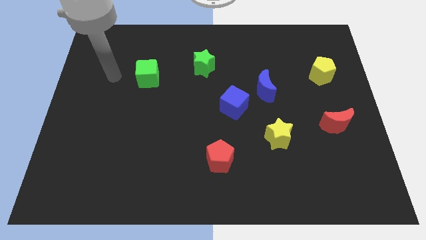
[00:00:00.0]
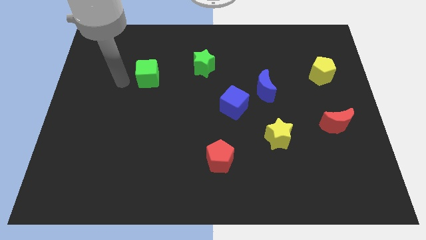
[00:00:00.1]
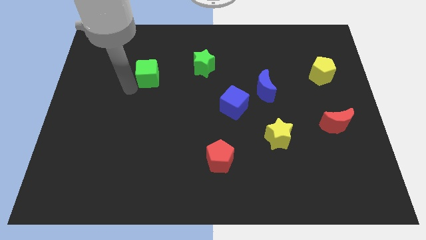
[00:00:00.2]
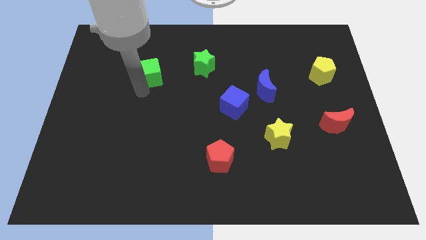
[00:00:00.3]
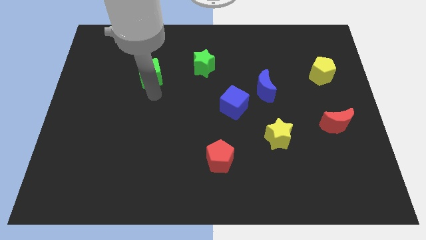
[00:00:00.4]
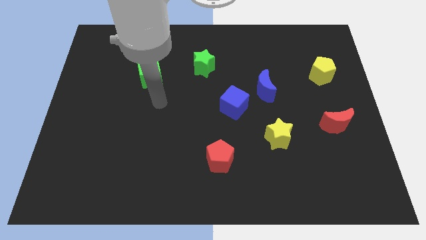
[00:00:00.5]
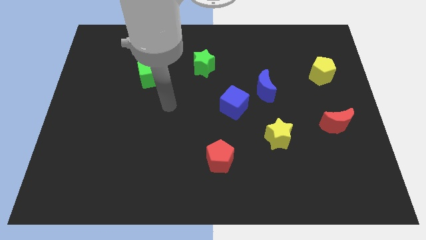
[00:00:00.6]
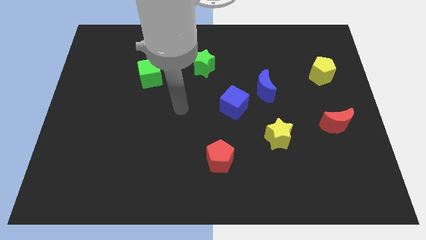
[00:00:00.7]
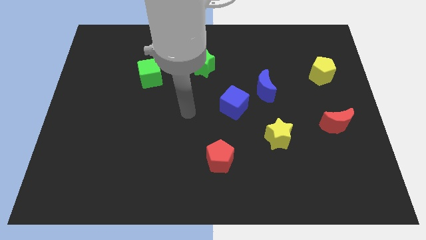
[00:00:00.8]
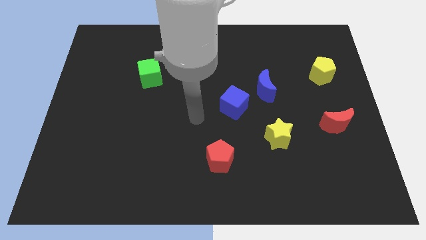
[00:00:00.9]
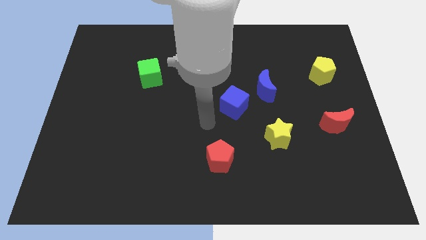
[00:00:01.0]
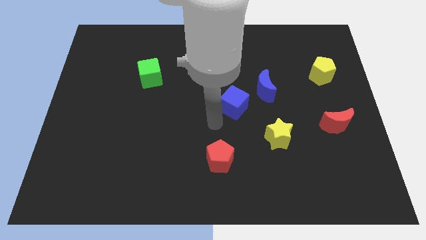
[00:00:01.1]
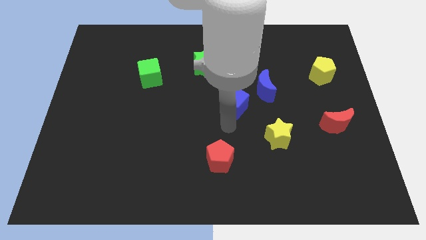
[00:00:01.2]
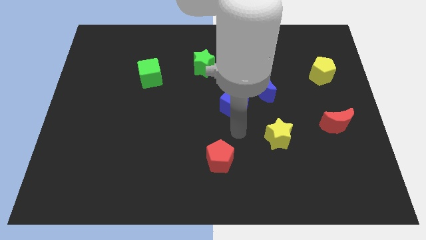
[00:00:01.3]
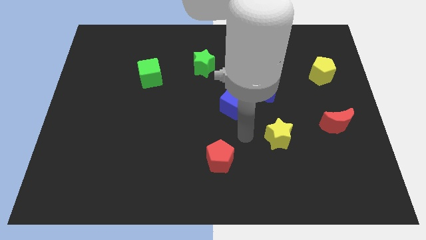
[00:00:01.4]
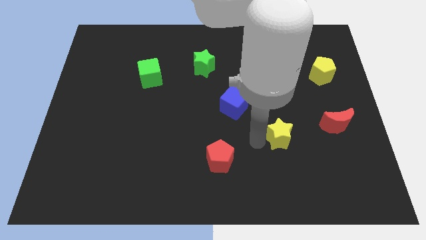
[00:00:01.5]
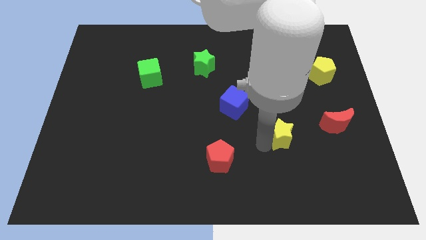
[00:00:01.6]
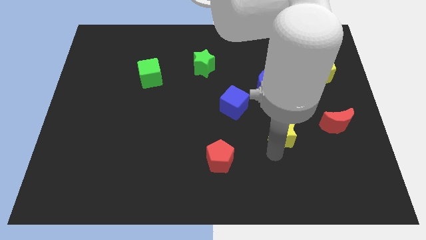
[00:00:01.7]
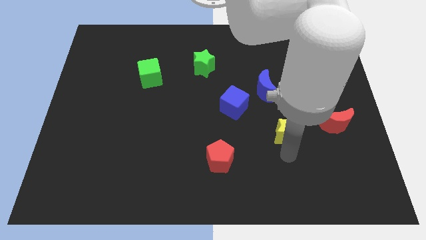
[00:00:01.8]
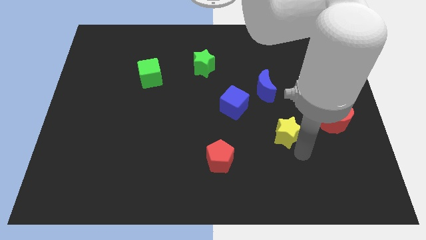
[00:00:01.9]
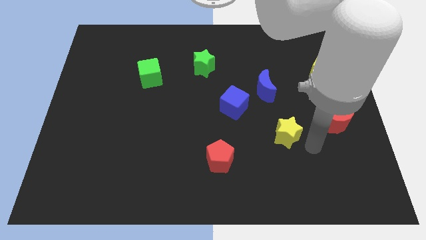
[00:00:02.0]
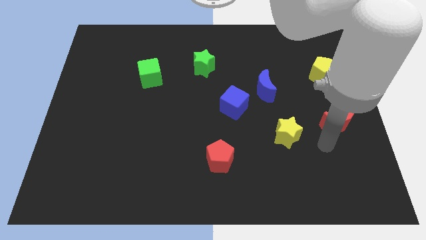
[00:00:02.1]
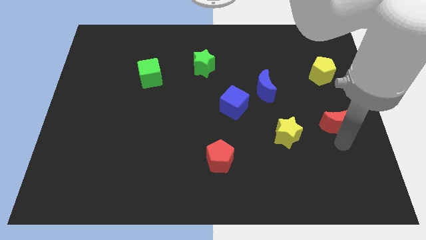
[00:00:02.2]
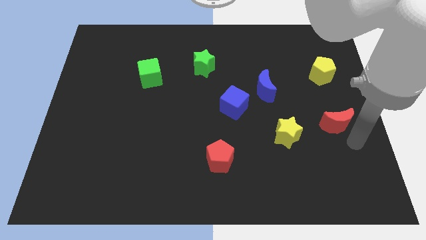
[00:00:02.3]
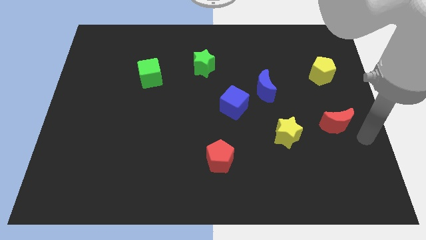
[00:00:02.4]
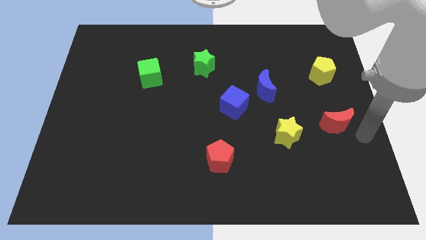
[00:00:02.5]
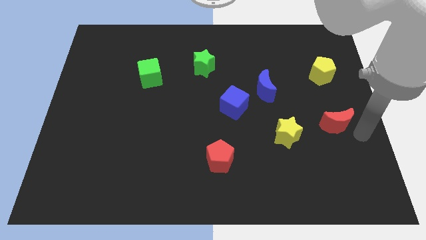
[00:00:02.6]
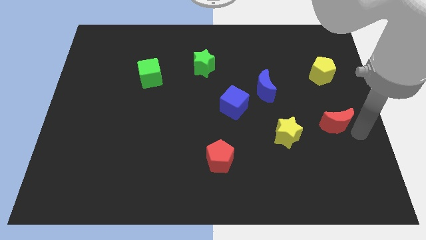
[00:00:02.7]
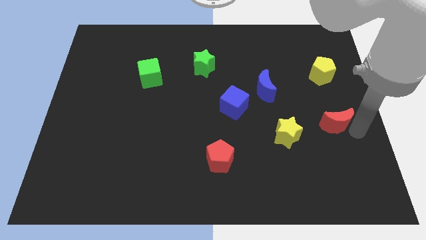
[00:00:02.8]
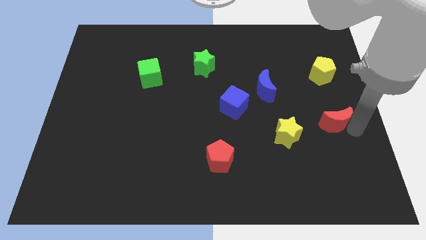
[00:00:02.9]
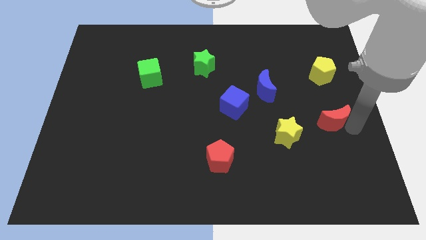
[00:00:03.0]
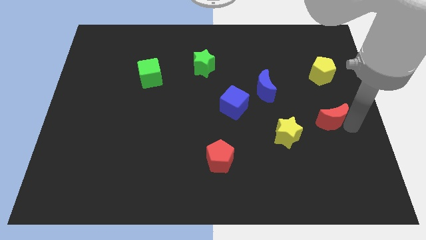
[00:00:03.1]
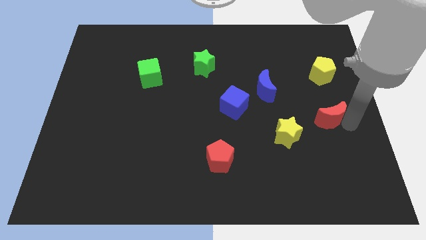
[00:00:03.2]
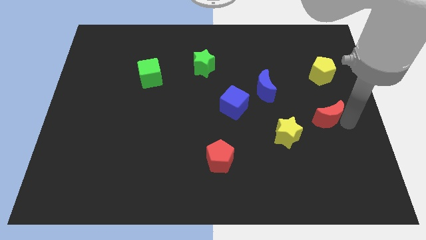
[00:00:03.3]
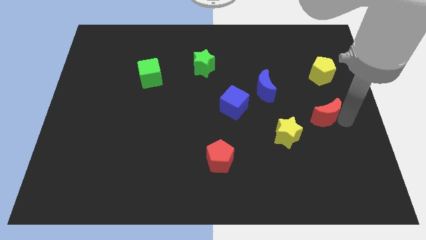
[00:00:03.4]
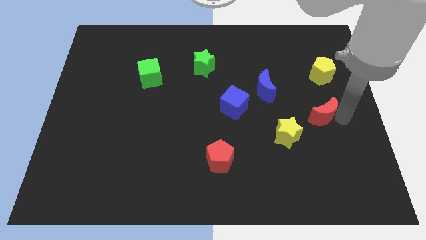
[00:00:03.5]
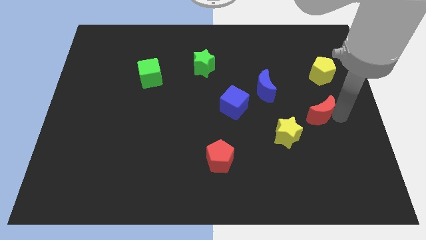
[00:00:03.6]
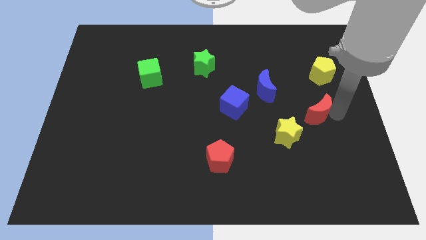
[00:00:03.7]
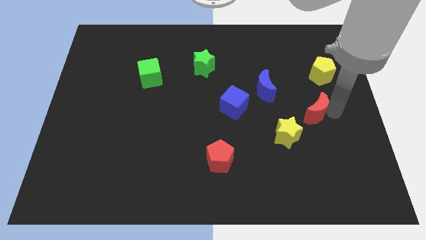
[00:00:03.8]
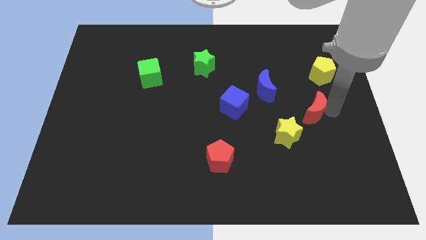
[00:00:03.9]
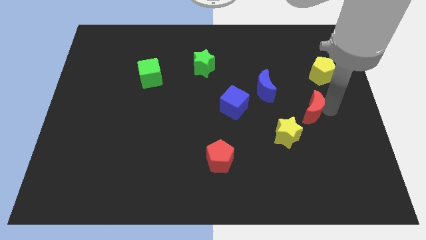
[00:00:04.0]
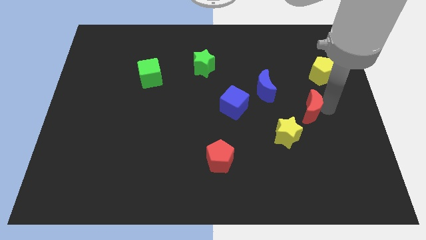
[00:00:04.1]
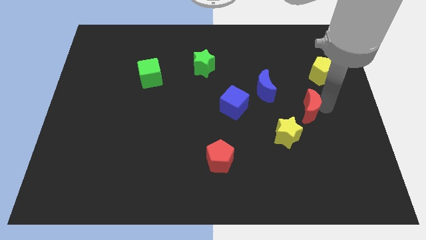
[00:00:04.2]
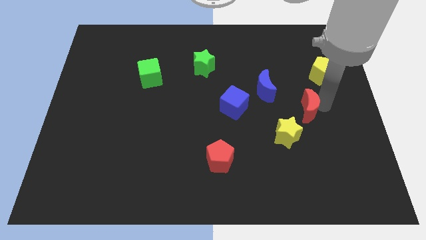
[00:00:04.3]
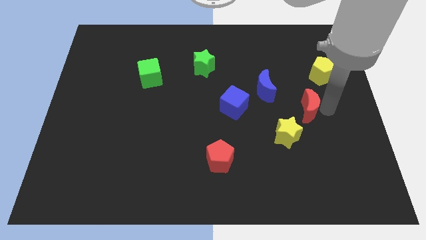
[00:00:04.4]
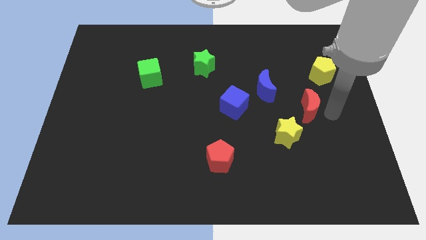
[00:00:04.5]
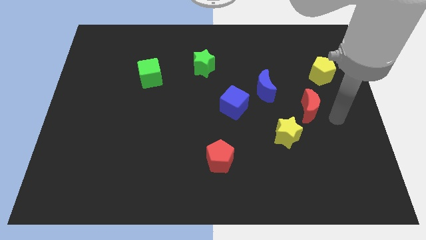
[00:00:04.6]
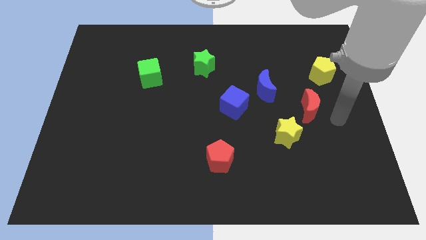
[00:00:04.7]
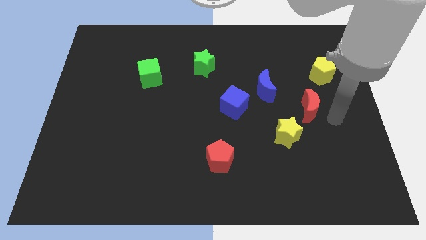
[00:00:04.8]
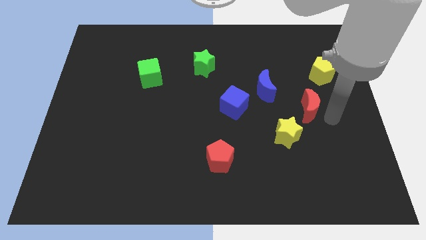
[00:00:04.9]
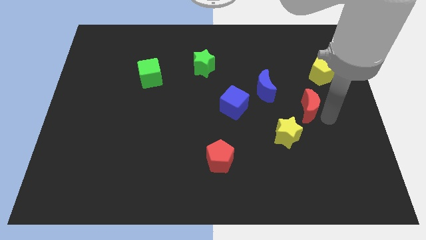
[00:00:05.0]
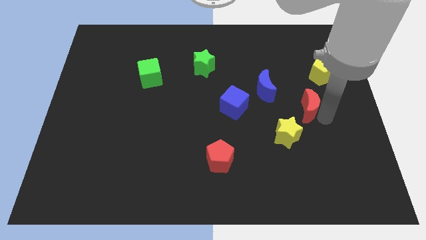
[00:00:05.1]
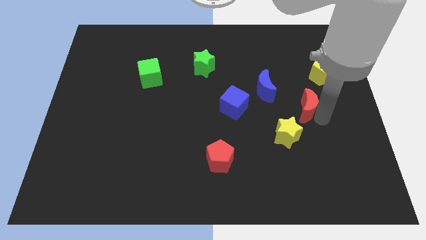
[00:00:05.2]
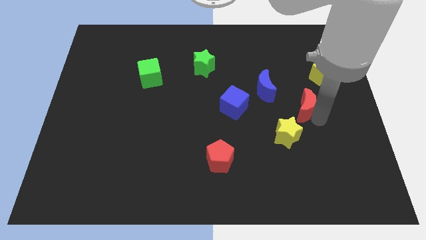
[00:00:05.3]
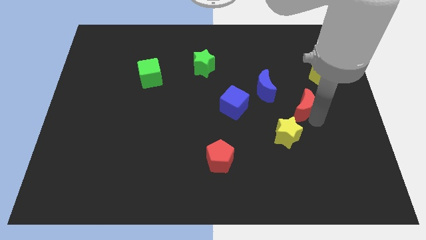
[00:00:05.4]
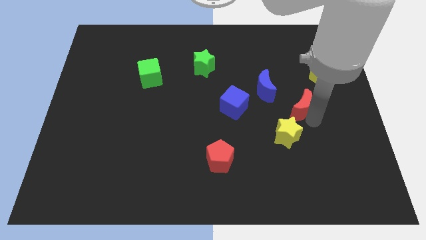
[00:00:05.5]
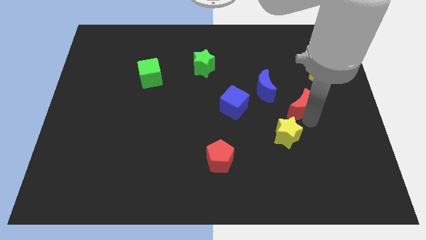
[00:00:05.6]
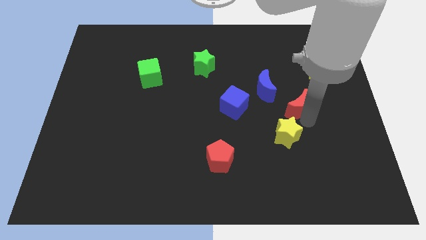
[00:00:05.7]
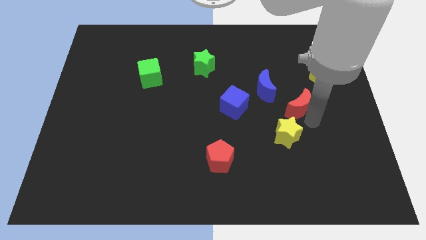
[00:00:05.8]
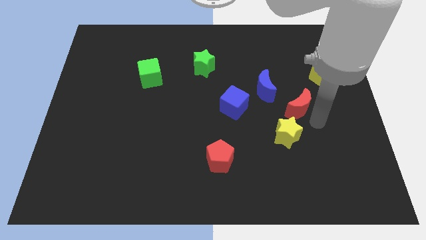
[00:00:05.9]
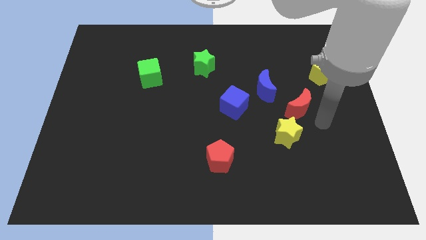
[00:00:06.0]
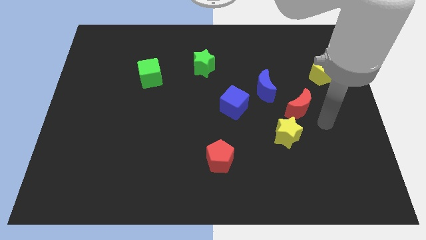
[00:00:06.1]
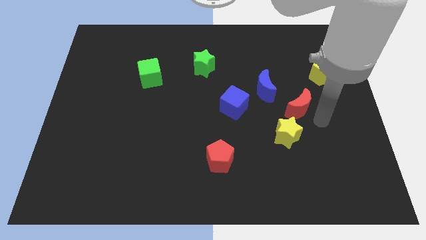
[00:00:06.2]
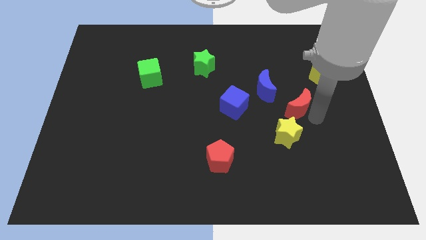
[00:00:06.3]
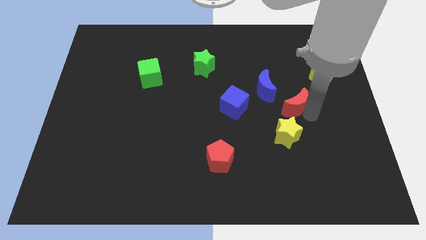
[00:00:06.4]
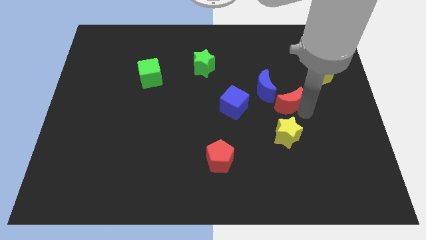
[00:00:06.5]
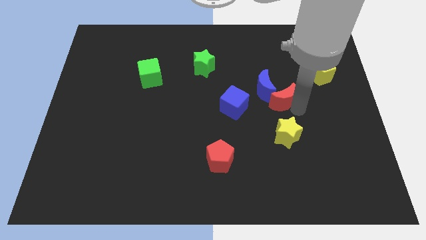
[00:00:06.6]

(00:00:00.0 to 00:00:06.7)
push the red moon towards the blue moon
